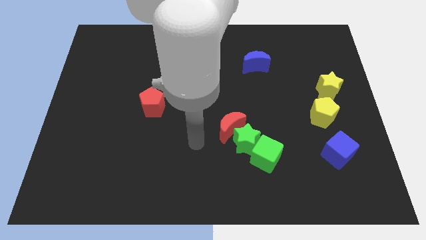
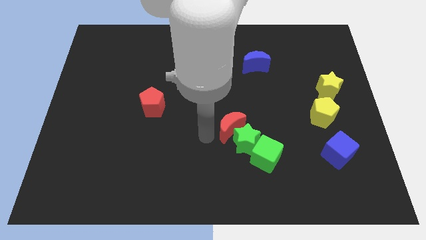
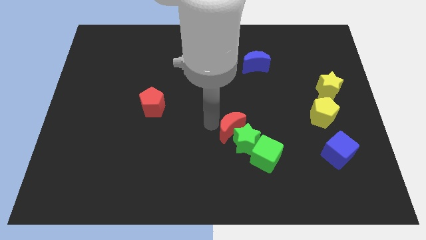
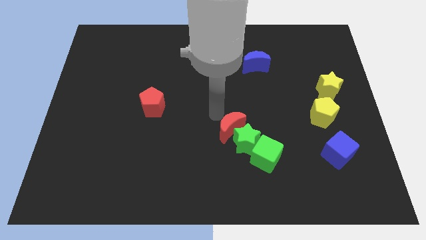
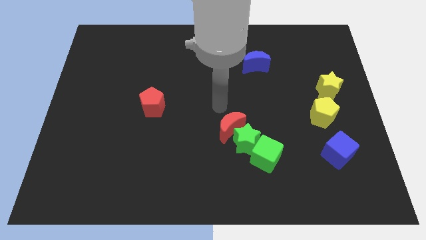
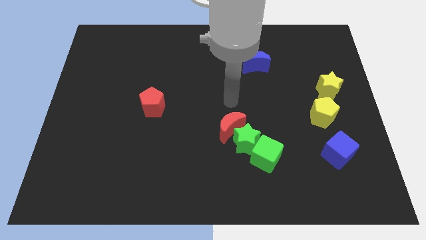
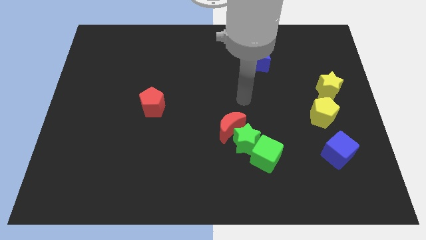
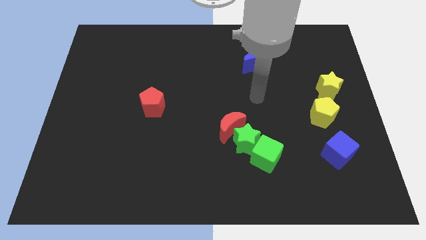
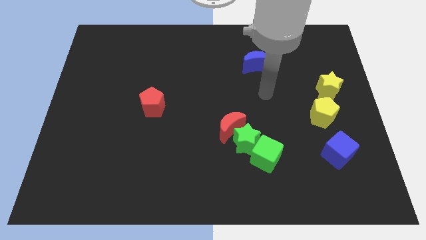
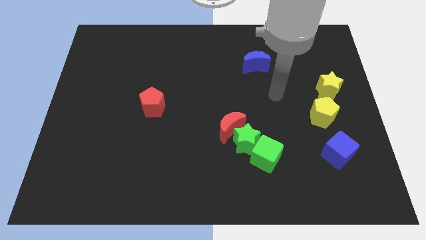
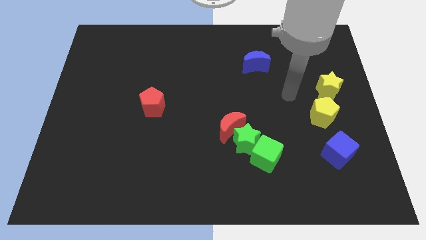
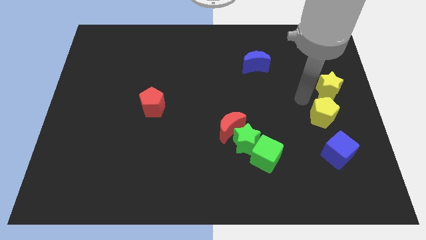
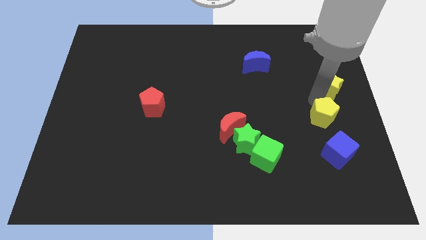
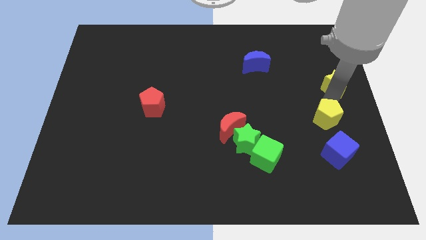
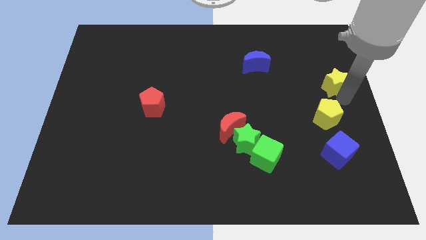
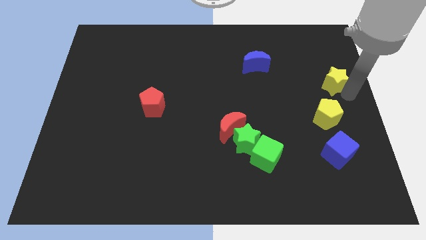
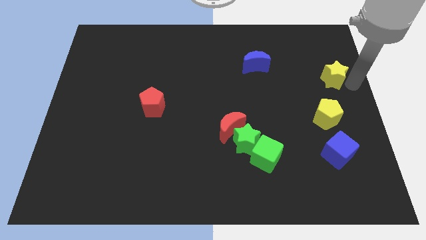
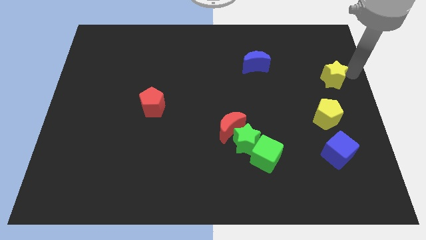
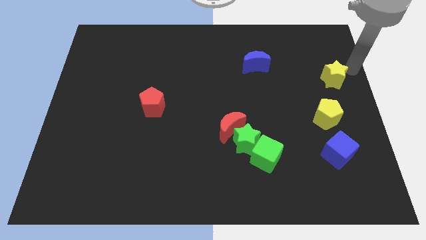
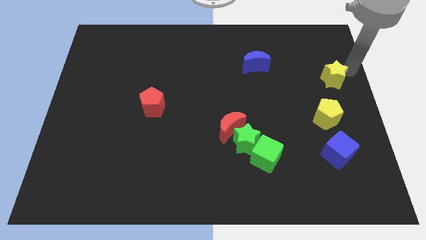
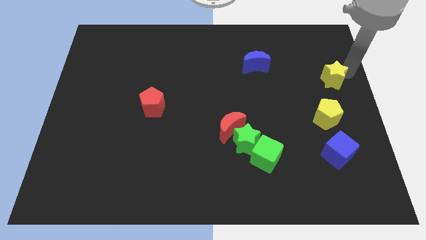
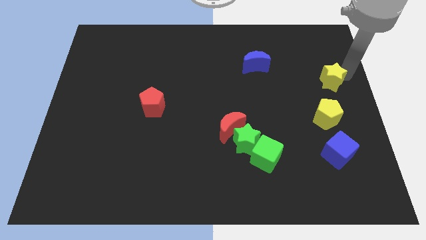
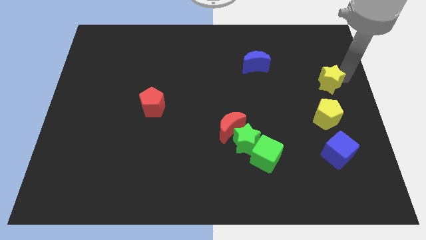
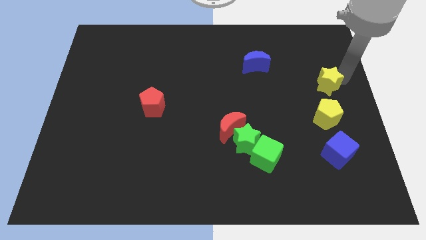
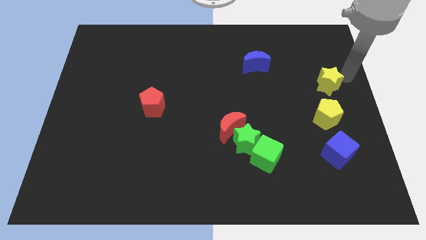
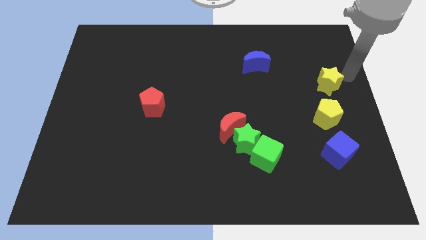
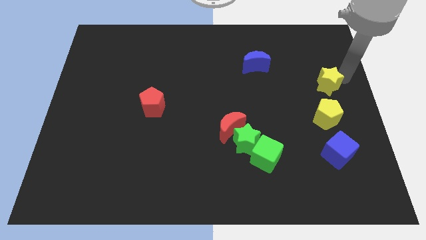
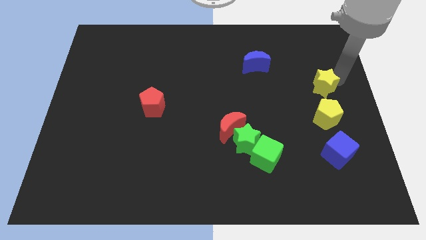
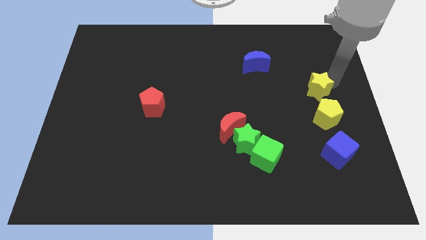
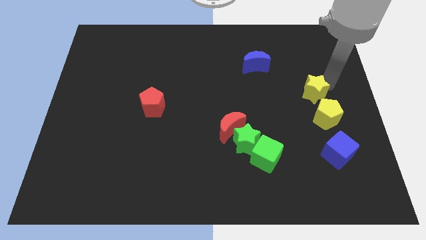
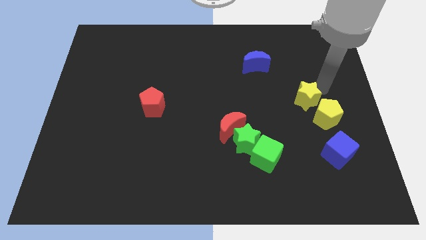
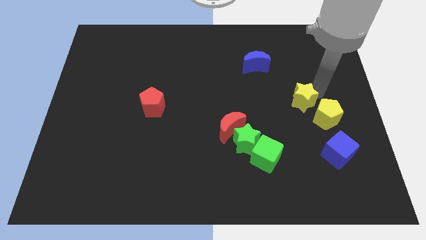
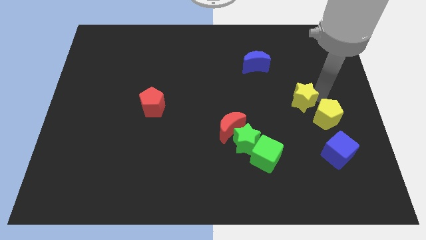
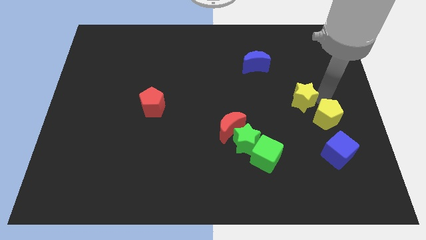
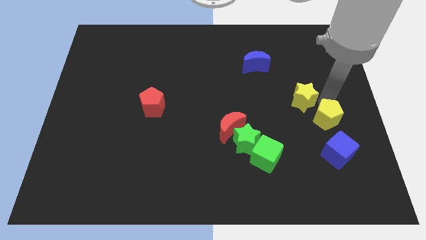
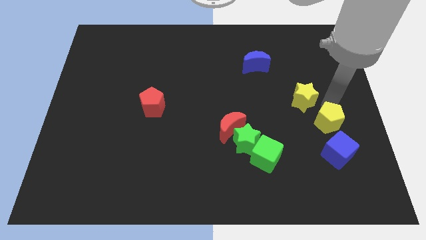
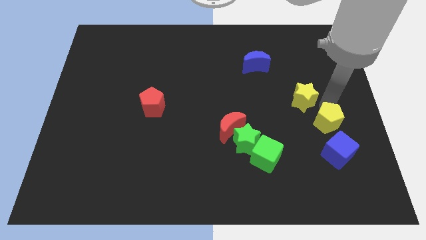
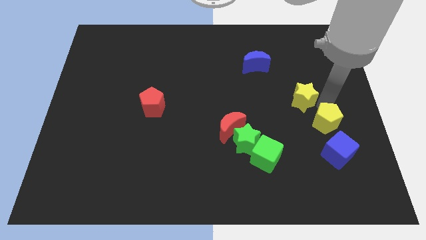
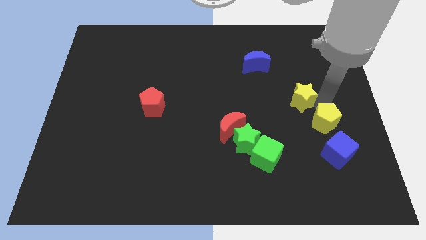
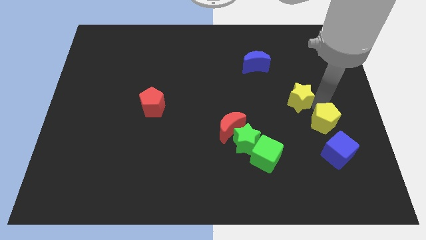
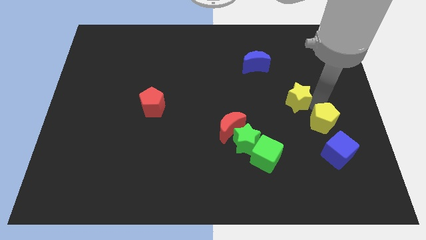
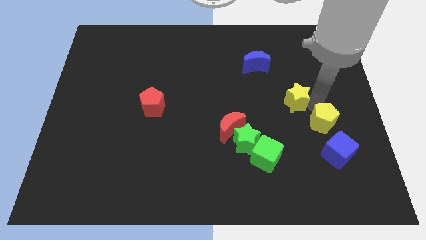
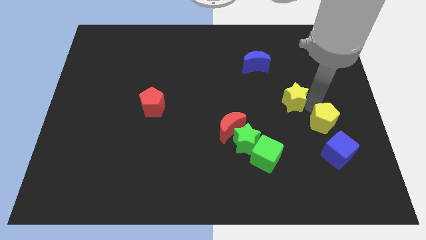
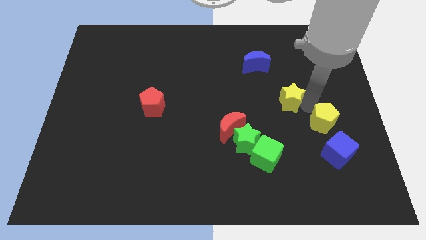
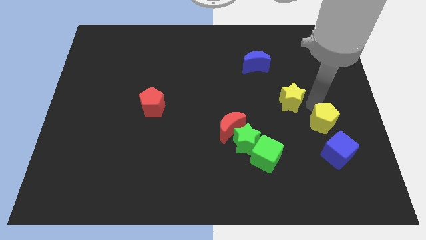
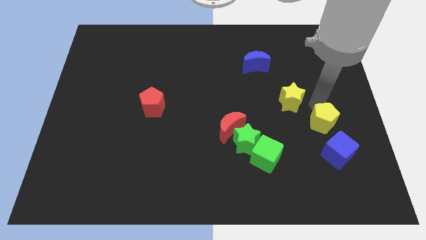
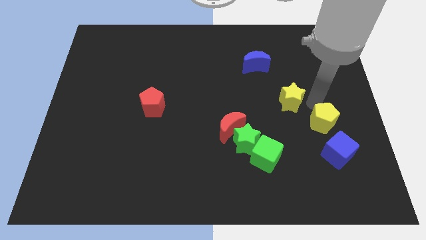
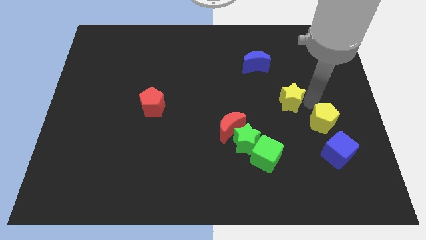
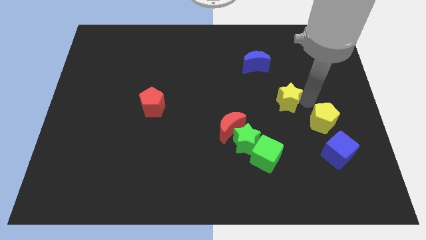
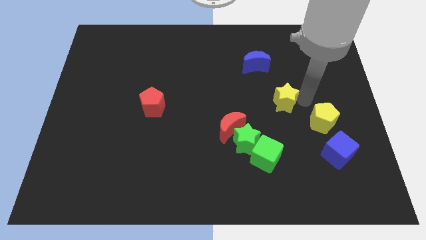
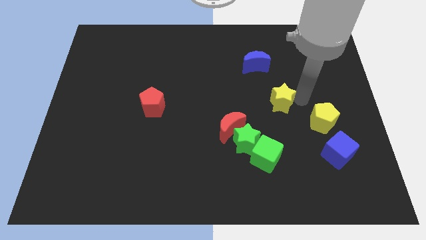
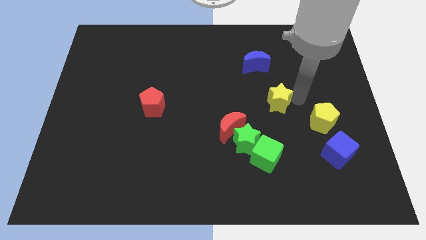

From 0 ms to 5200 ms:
move the yellow star below the blue moon

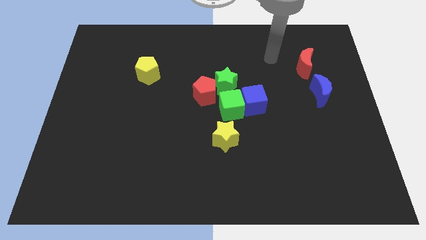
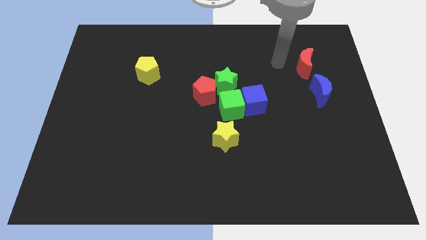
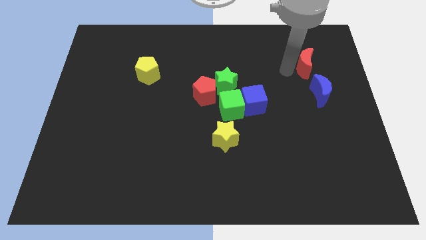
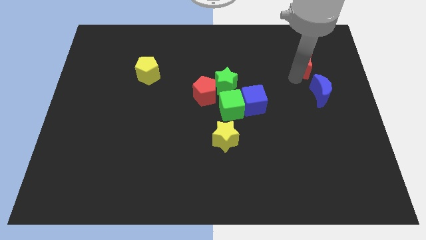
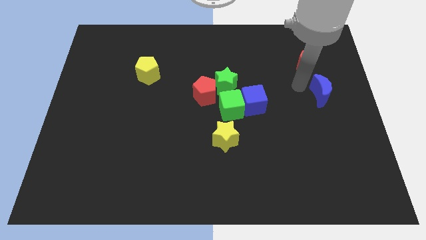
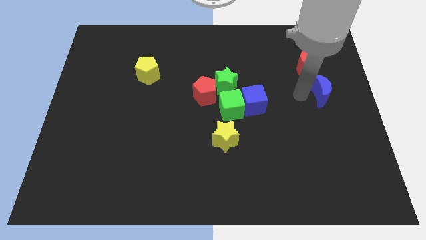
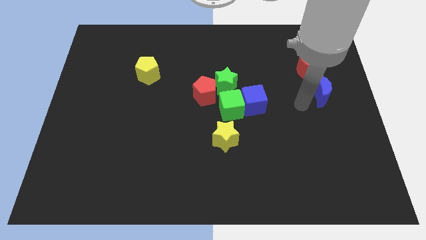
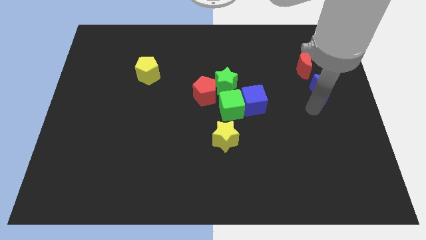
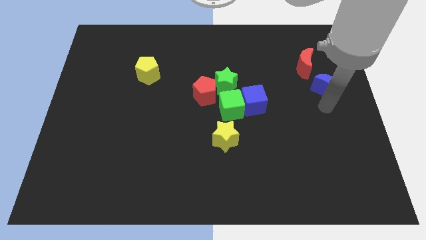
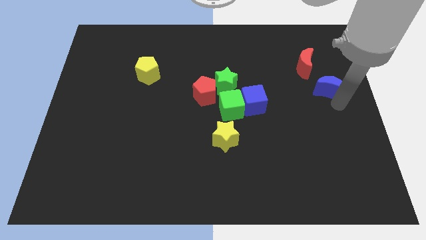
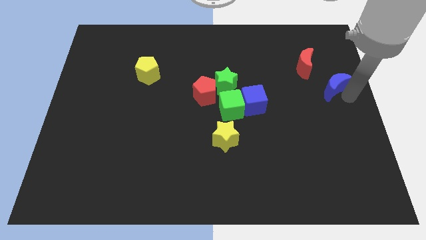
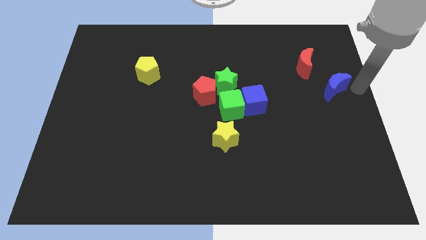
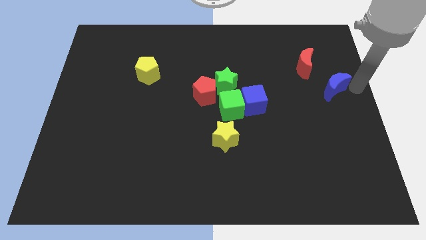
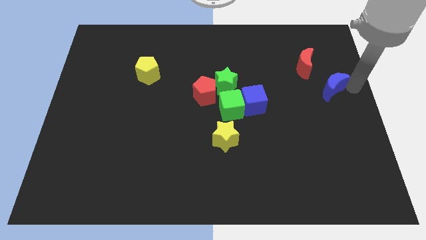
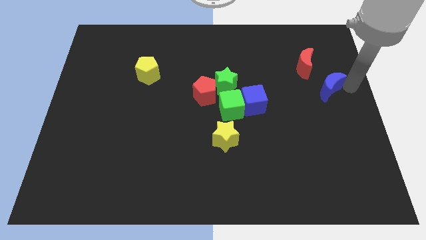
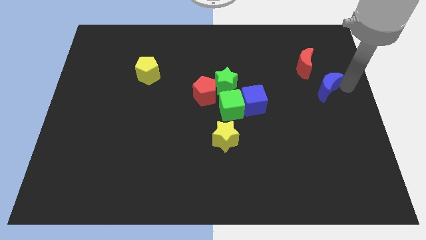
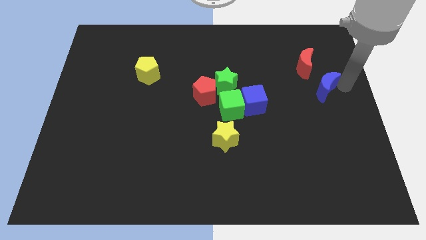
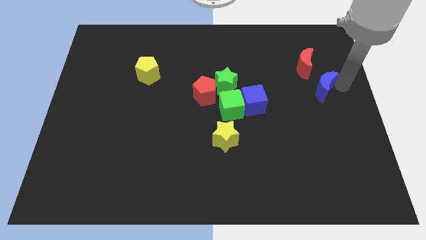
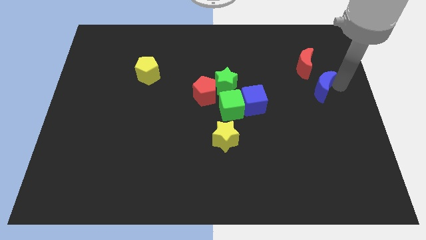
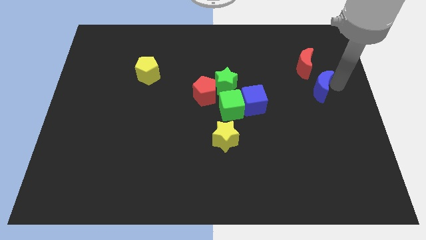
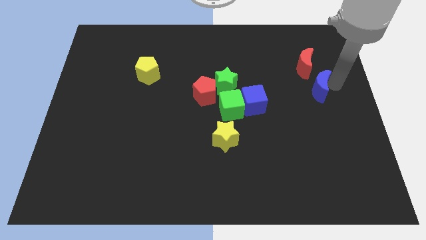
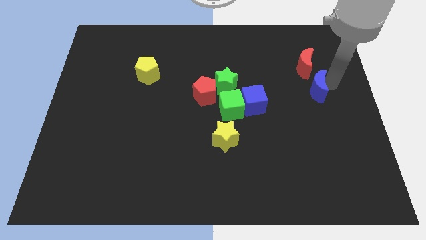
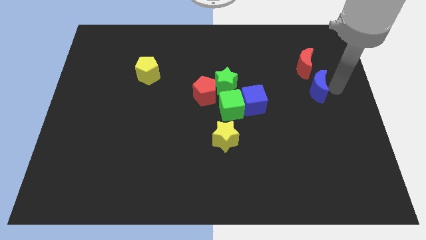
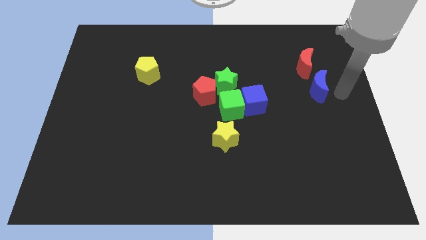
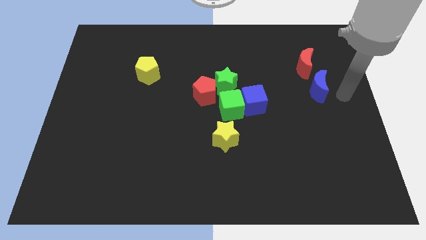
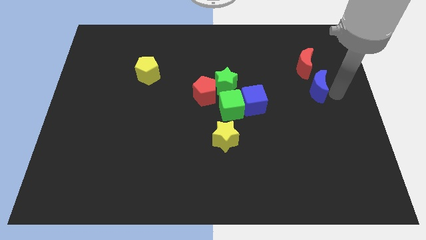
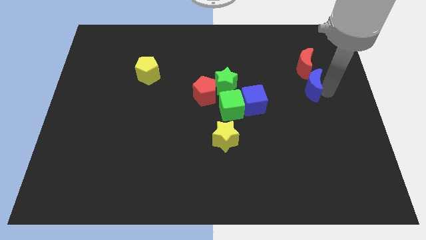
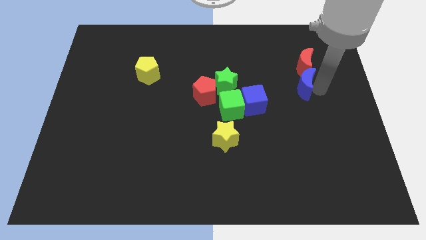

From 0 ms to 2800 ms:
push the blue moon to the bottom left of the red moon
